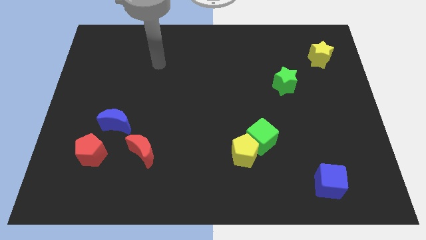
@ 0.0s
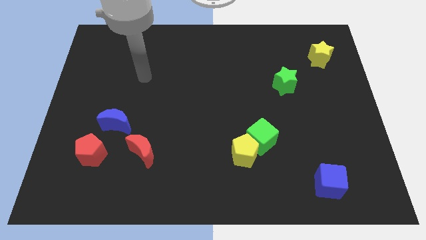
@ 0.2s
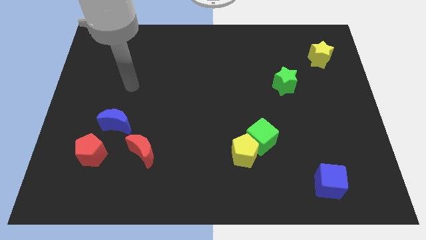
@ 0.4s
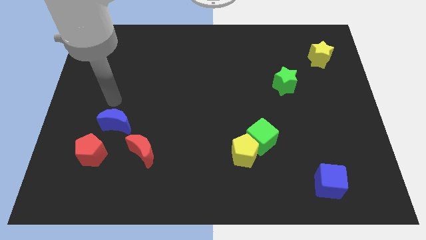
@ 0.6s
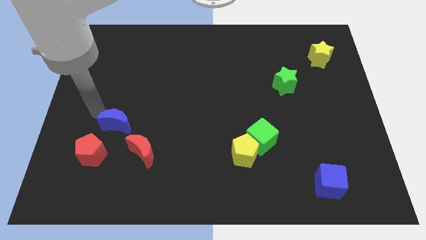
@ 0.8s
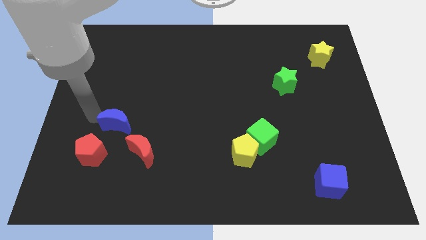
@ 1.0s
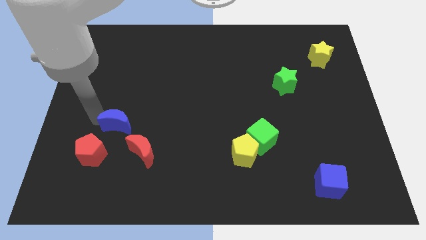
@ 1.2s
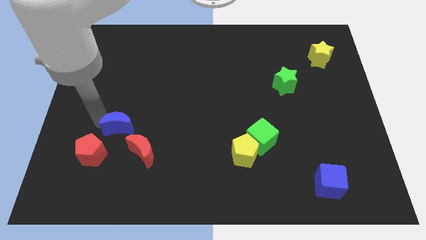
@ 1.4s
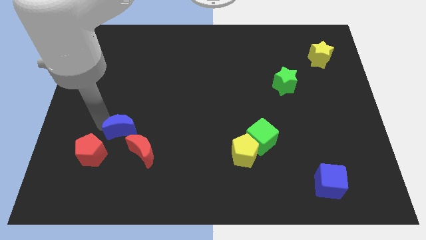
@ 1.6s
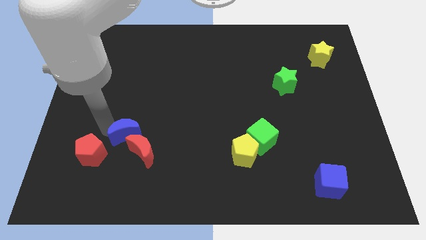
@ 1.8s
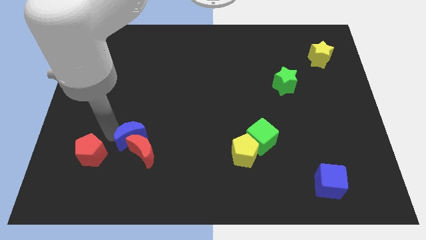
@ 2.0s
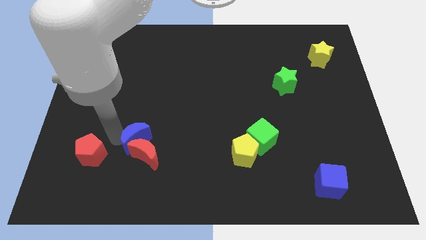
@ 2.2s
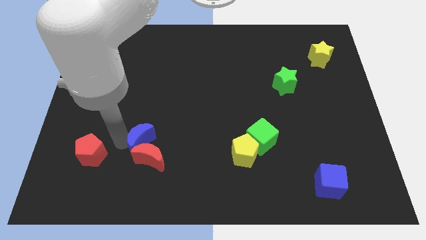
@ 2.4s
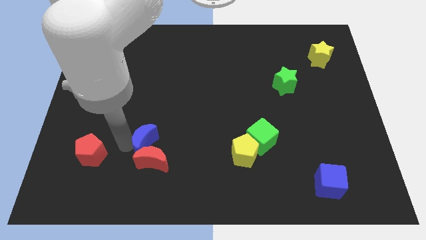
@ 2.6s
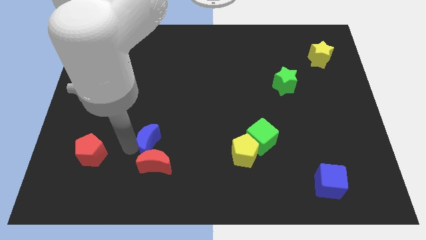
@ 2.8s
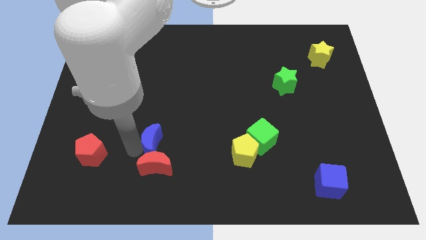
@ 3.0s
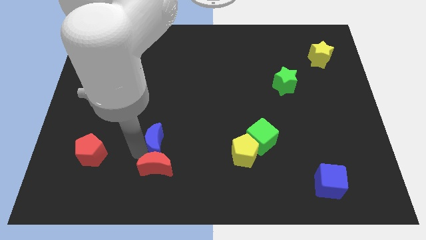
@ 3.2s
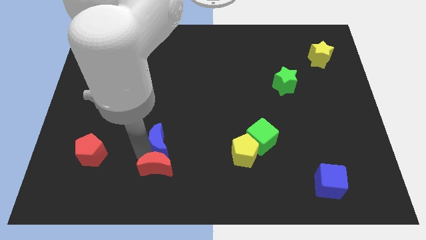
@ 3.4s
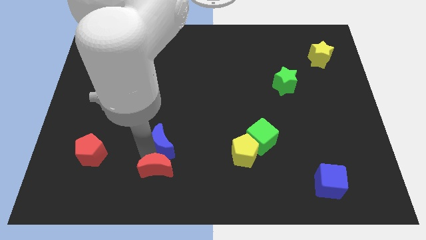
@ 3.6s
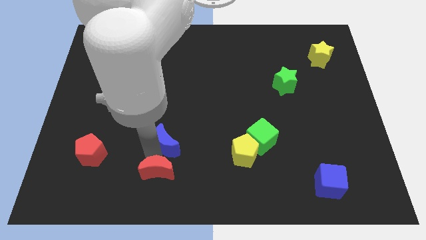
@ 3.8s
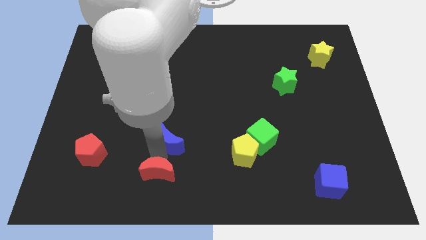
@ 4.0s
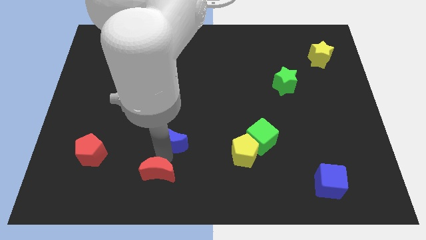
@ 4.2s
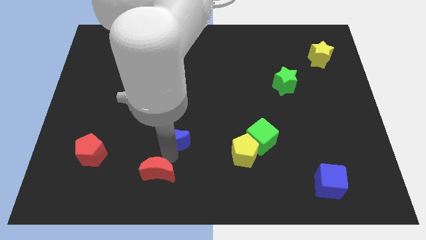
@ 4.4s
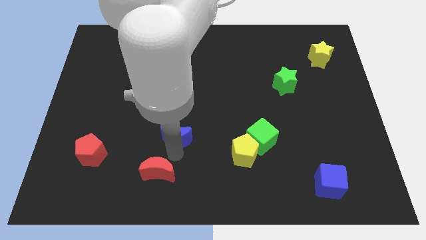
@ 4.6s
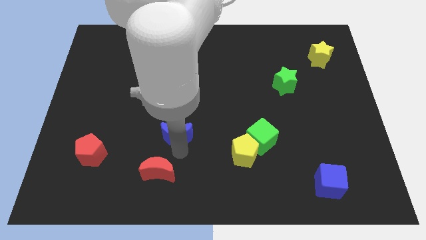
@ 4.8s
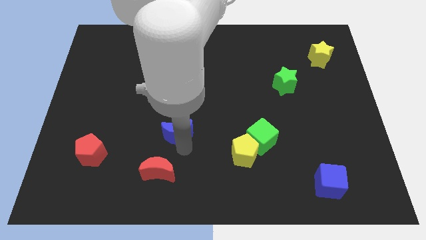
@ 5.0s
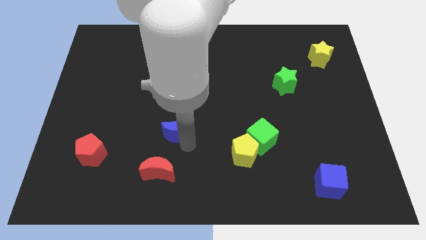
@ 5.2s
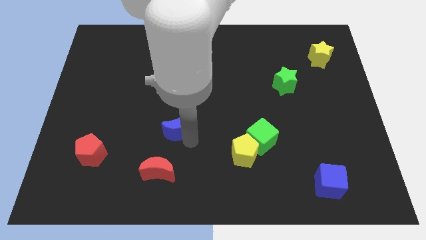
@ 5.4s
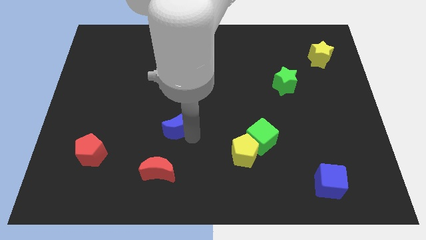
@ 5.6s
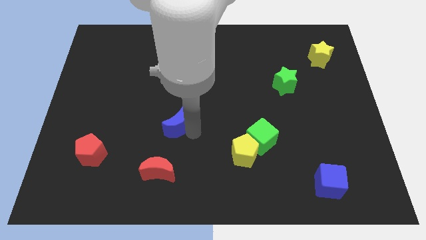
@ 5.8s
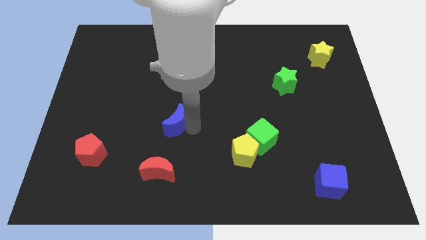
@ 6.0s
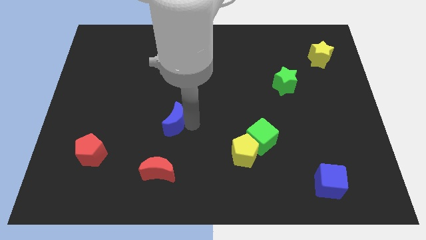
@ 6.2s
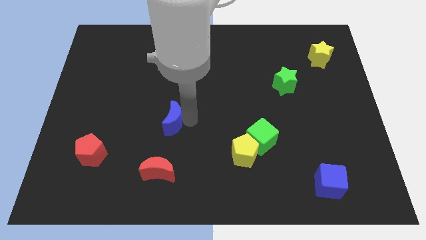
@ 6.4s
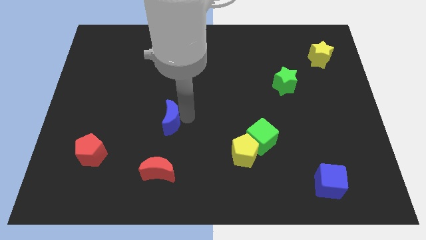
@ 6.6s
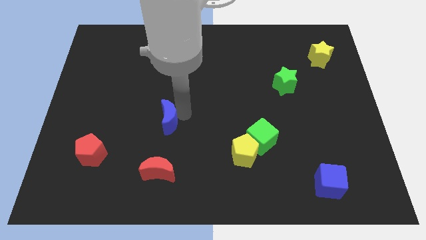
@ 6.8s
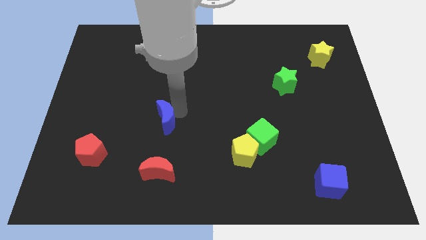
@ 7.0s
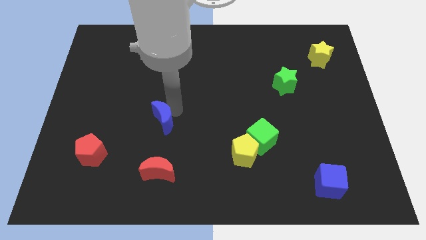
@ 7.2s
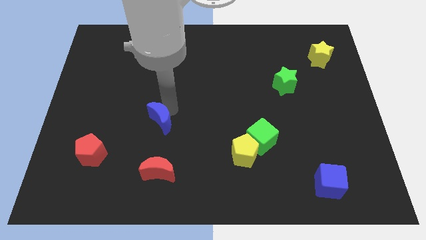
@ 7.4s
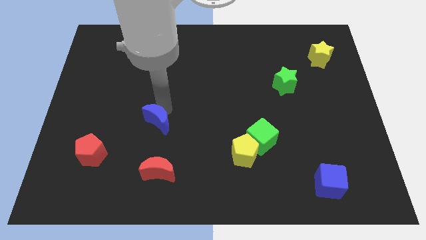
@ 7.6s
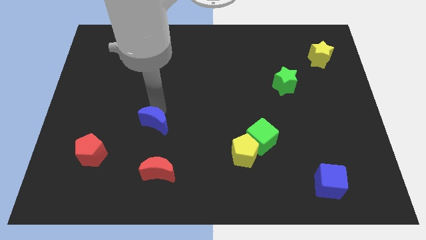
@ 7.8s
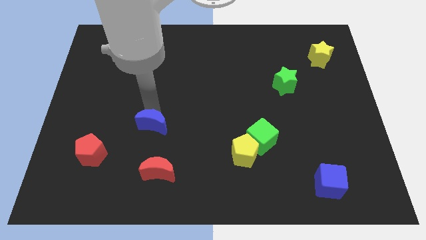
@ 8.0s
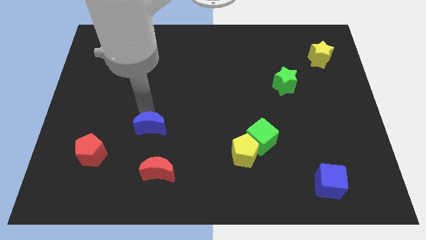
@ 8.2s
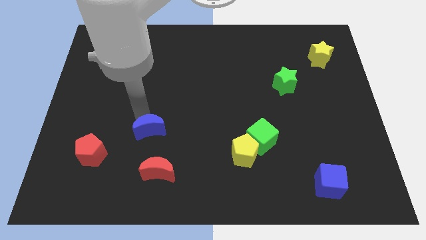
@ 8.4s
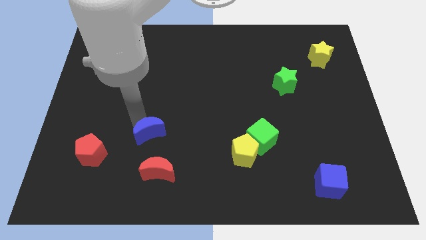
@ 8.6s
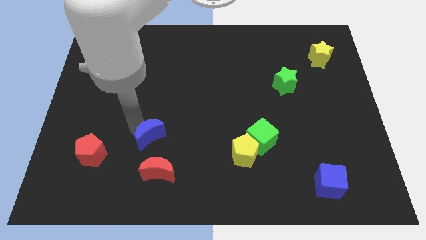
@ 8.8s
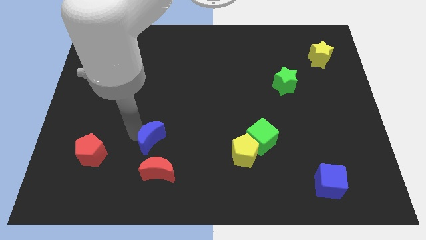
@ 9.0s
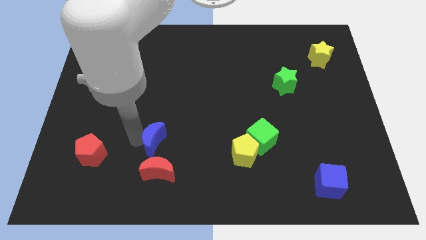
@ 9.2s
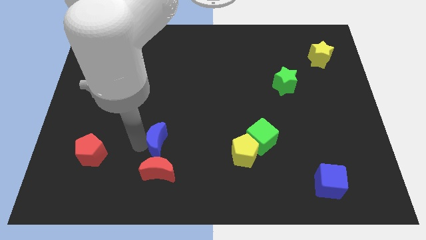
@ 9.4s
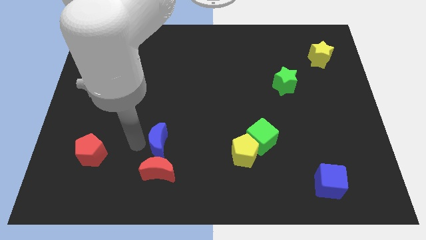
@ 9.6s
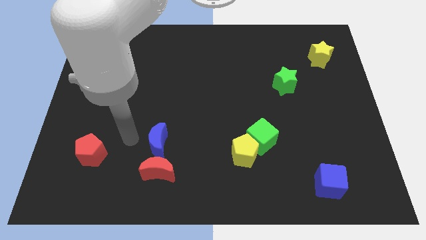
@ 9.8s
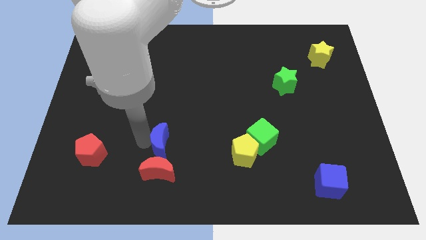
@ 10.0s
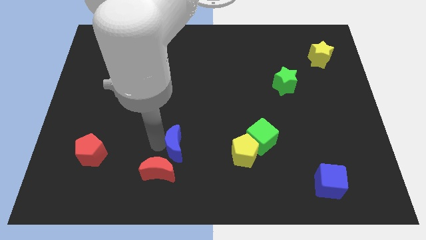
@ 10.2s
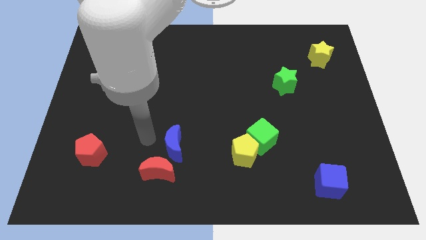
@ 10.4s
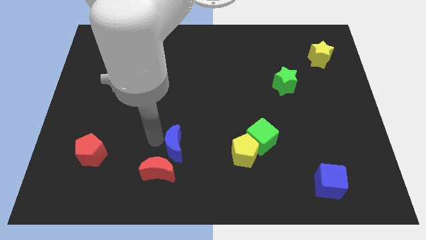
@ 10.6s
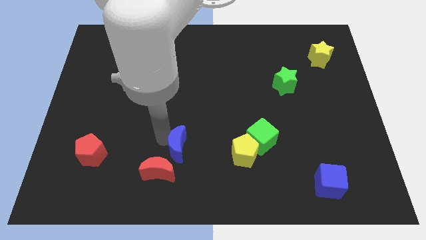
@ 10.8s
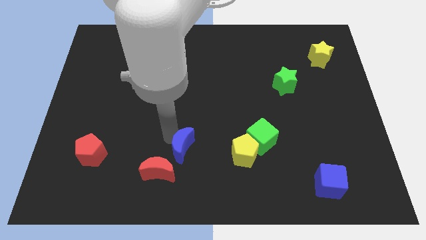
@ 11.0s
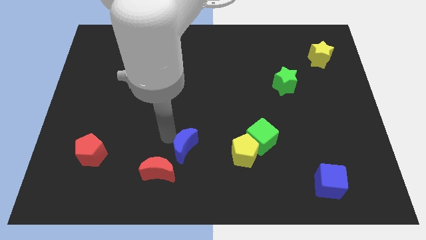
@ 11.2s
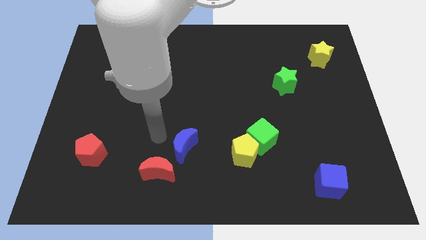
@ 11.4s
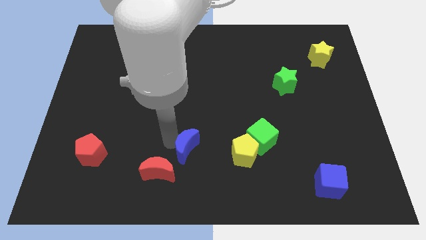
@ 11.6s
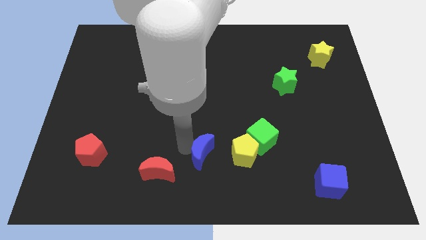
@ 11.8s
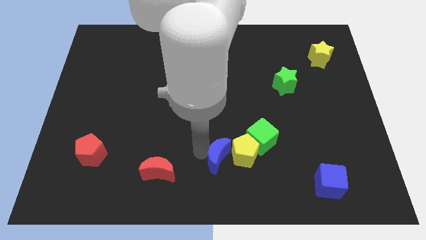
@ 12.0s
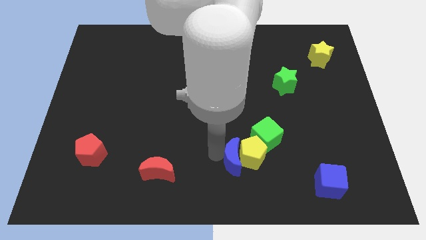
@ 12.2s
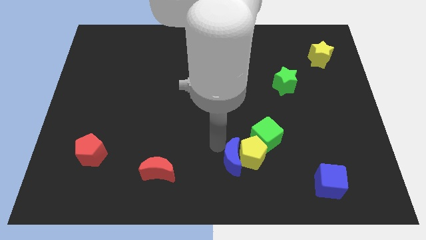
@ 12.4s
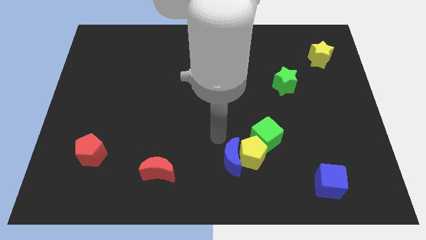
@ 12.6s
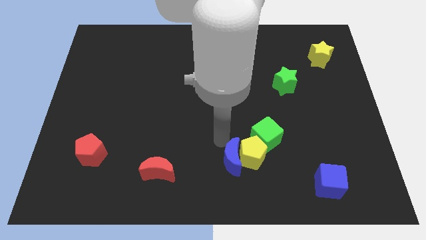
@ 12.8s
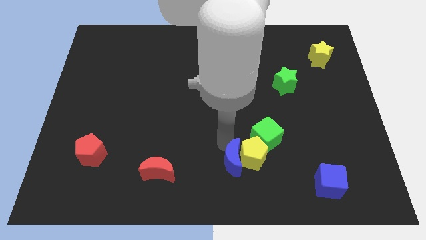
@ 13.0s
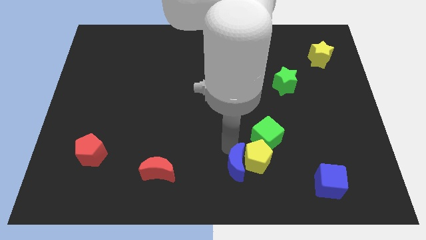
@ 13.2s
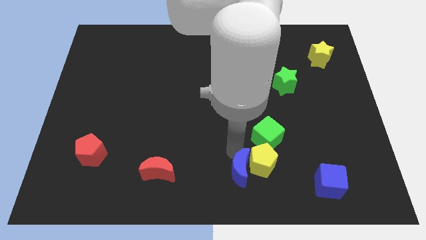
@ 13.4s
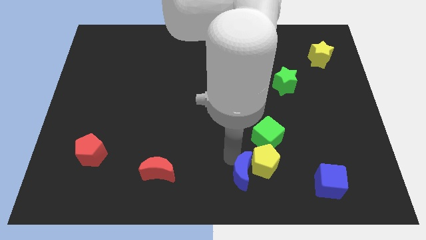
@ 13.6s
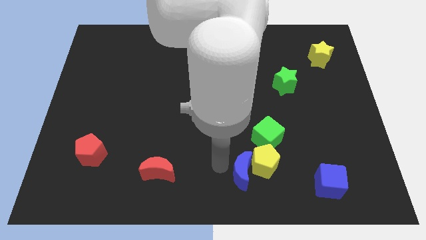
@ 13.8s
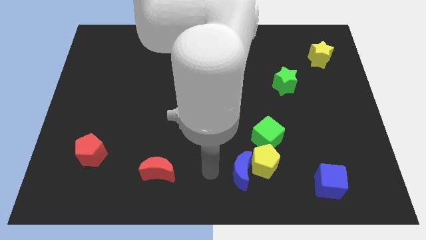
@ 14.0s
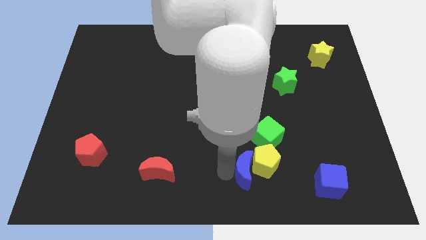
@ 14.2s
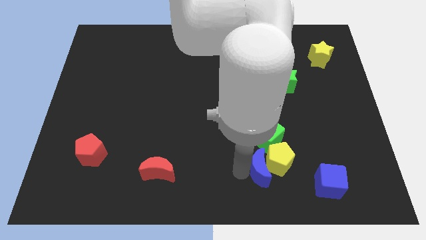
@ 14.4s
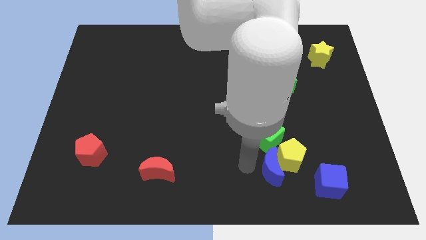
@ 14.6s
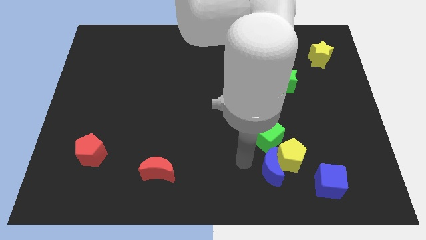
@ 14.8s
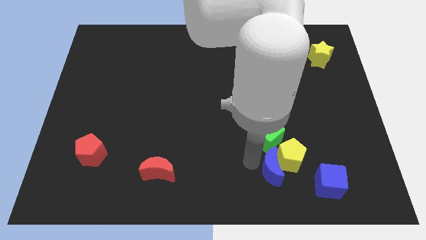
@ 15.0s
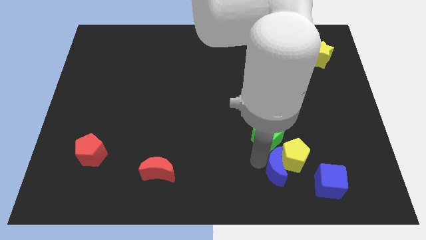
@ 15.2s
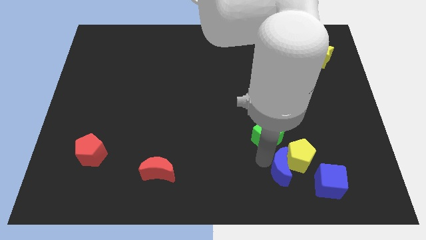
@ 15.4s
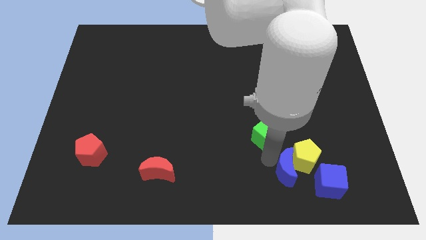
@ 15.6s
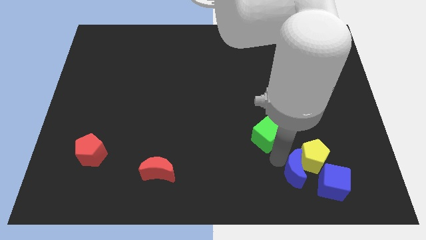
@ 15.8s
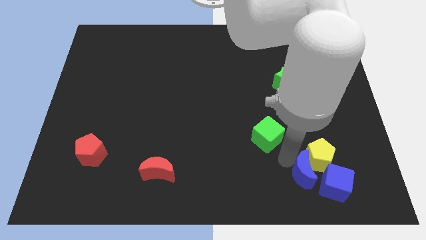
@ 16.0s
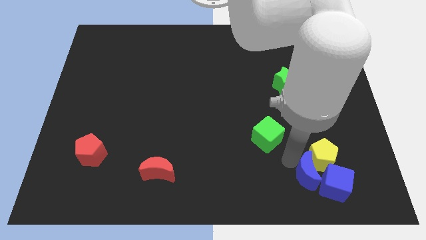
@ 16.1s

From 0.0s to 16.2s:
put the blue moon close to the blue cube
